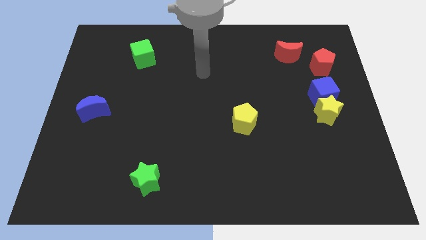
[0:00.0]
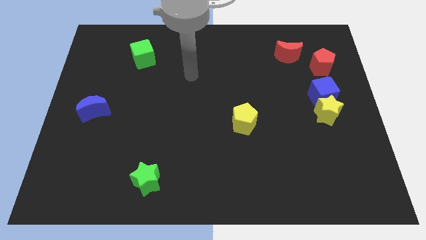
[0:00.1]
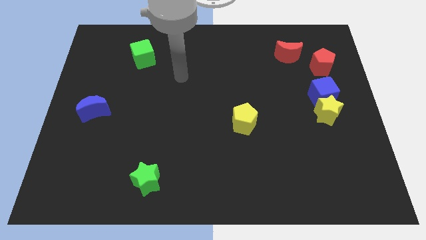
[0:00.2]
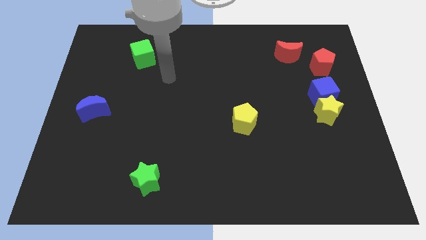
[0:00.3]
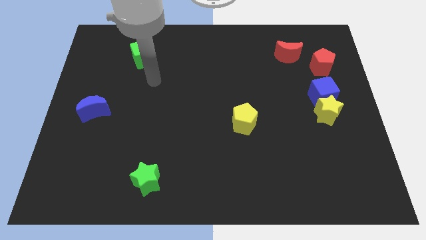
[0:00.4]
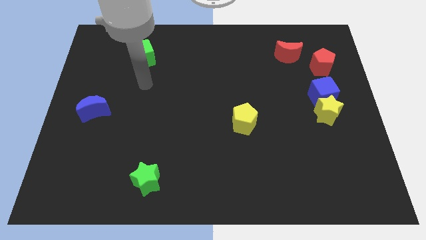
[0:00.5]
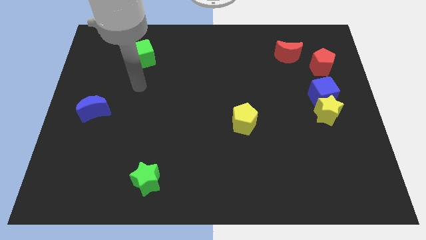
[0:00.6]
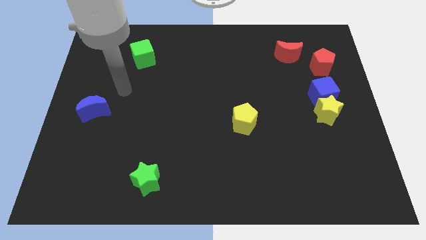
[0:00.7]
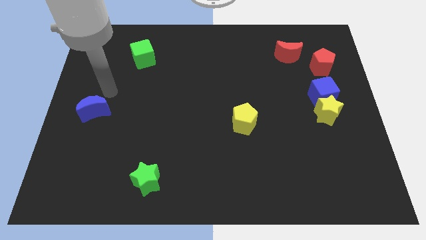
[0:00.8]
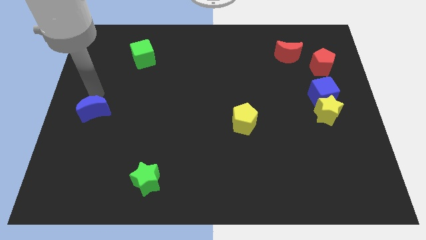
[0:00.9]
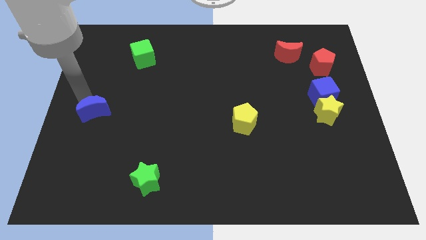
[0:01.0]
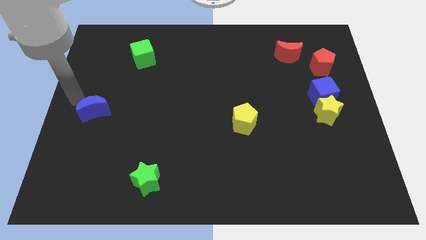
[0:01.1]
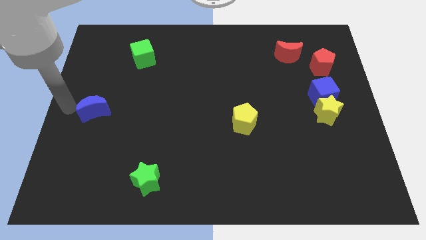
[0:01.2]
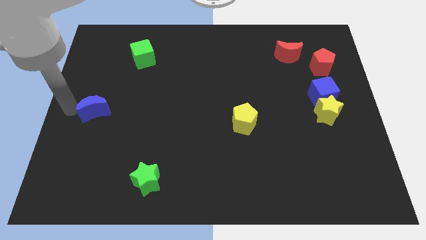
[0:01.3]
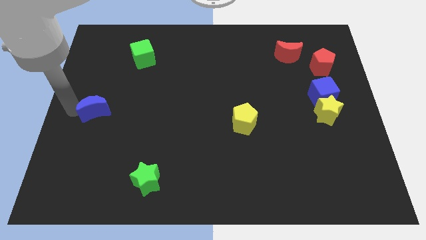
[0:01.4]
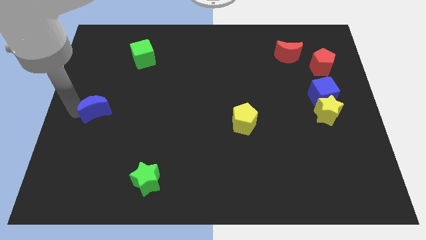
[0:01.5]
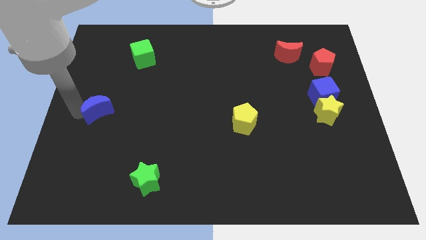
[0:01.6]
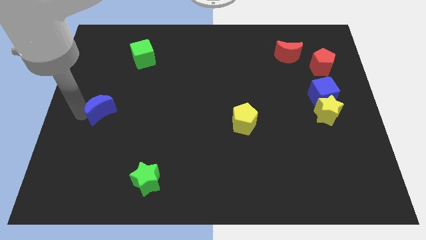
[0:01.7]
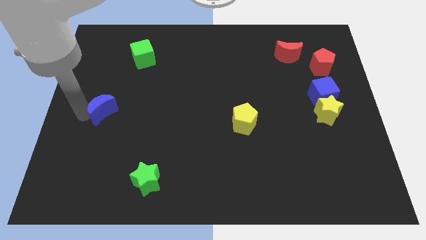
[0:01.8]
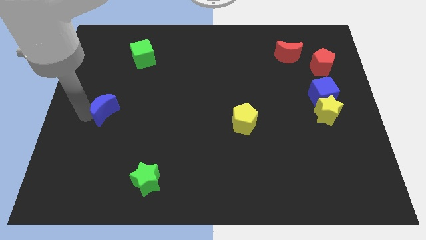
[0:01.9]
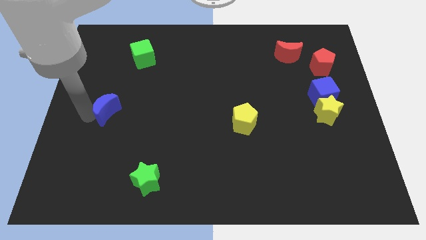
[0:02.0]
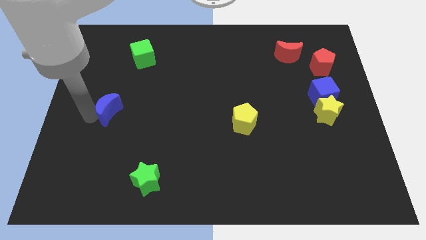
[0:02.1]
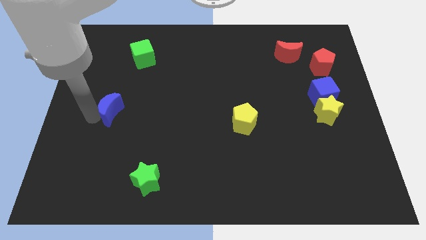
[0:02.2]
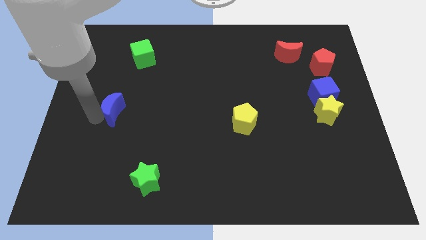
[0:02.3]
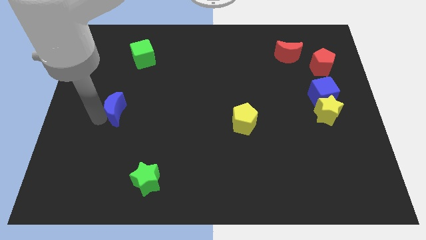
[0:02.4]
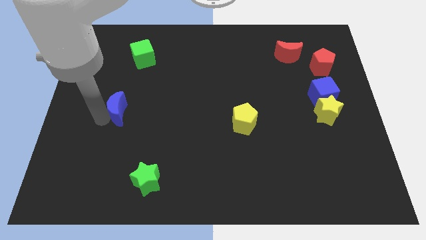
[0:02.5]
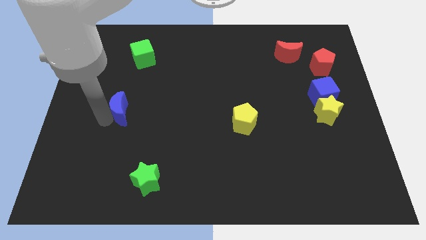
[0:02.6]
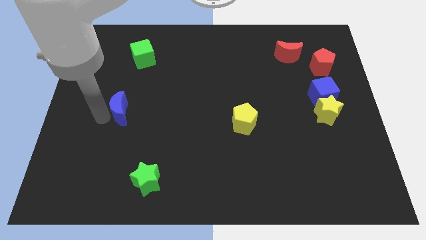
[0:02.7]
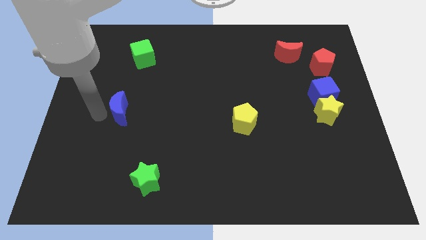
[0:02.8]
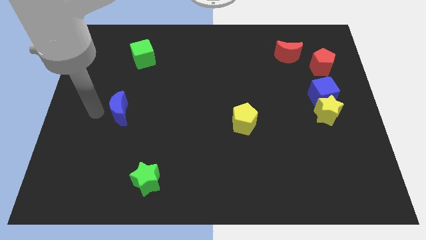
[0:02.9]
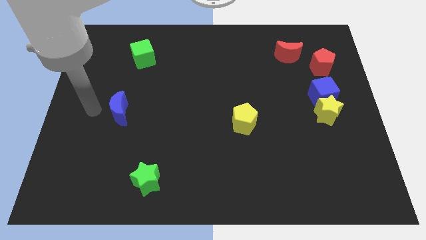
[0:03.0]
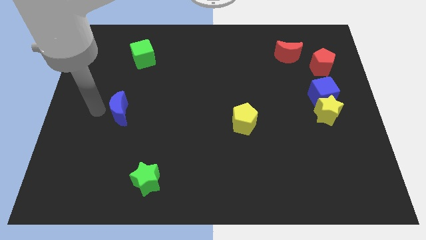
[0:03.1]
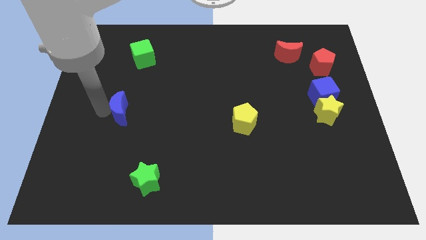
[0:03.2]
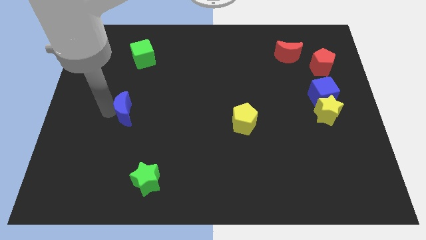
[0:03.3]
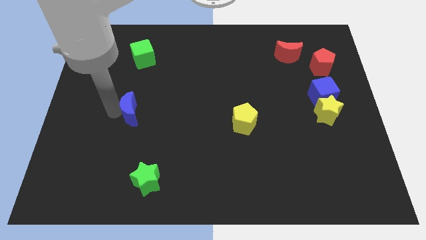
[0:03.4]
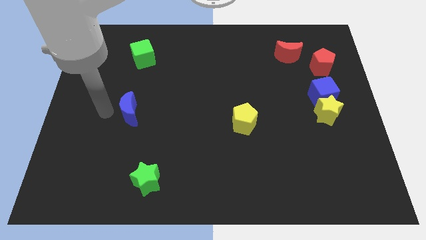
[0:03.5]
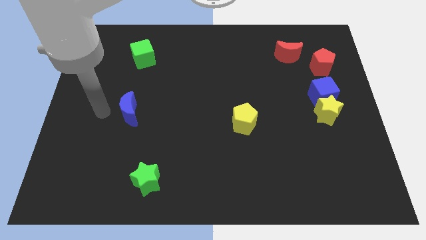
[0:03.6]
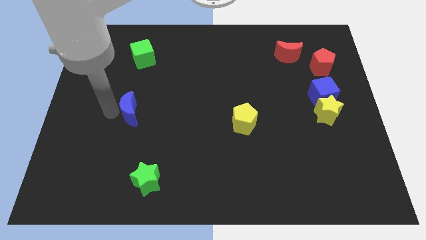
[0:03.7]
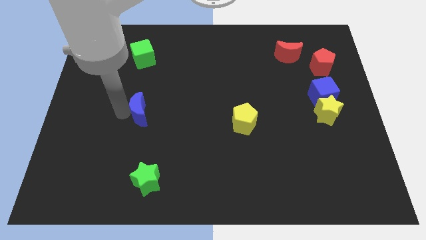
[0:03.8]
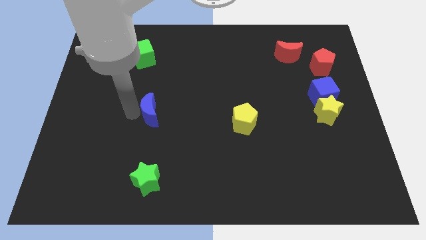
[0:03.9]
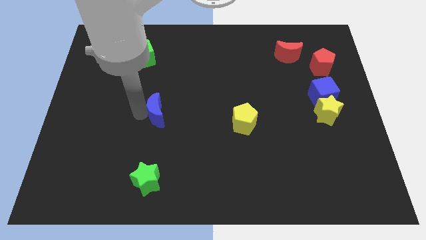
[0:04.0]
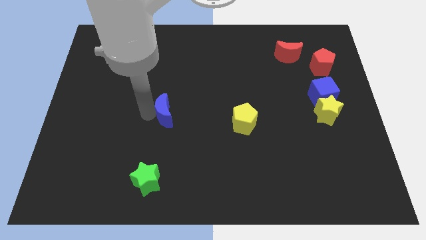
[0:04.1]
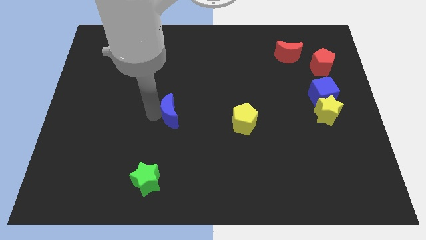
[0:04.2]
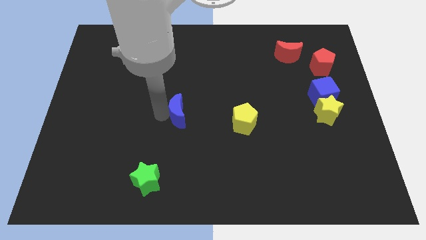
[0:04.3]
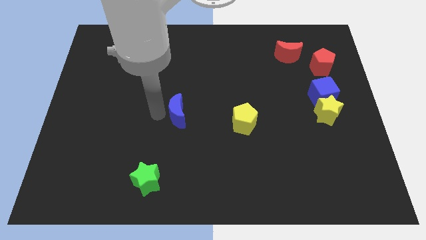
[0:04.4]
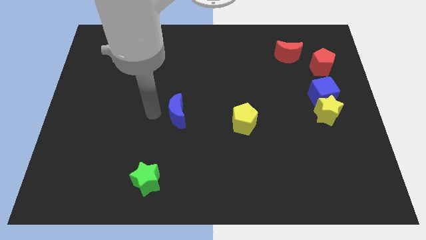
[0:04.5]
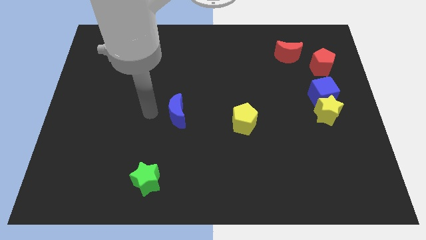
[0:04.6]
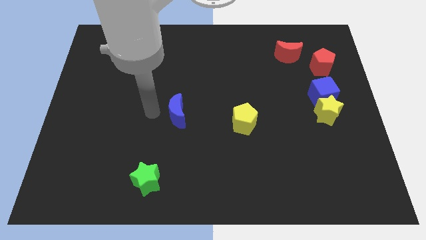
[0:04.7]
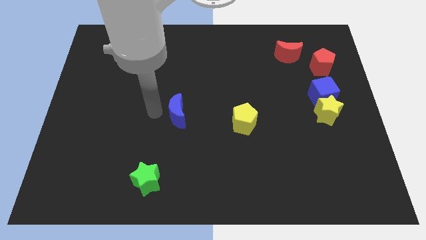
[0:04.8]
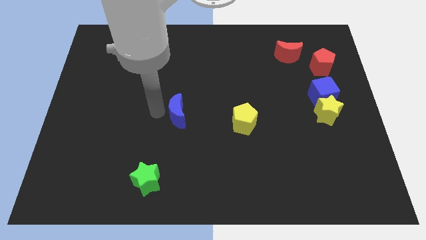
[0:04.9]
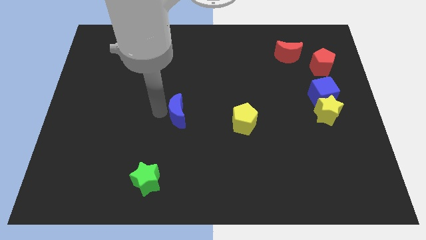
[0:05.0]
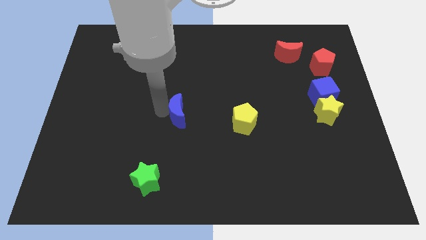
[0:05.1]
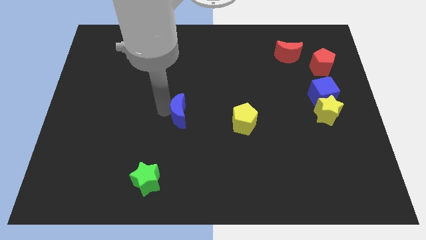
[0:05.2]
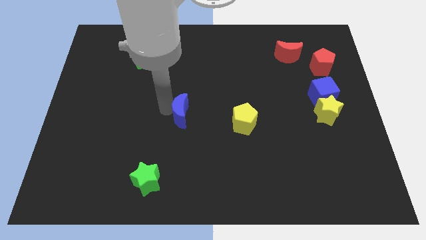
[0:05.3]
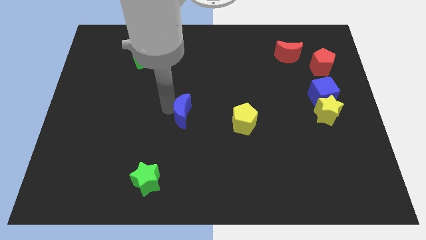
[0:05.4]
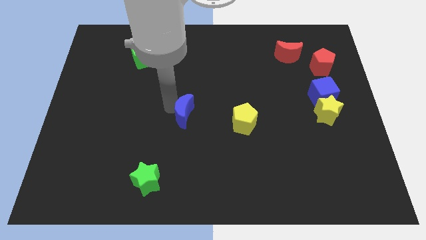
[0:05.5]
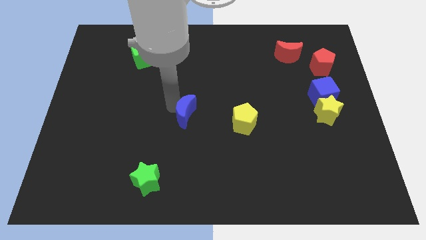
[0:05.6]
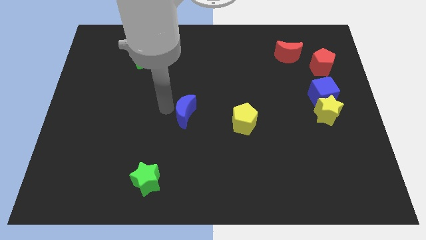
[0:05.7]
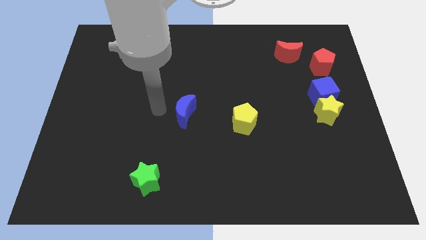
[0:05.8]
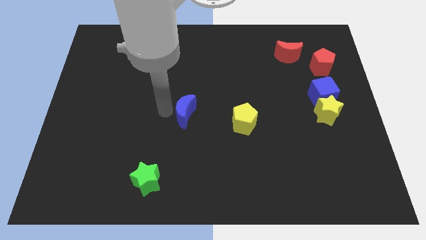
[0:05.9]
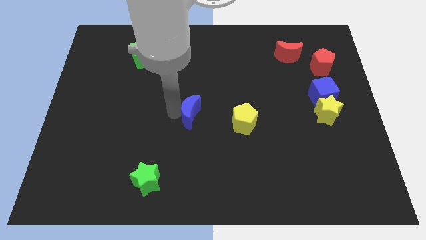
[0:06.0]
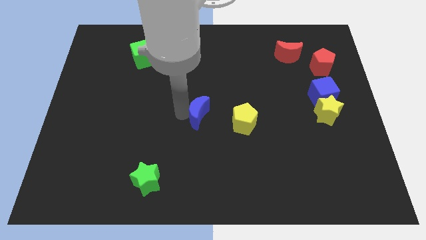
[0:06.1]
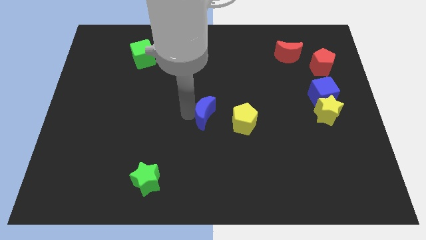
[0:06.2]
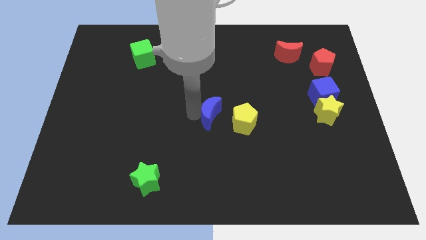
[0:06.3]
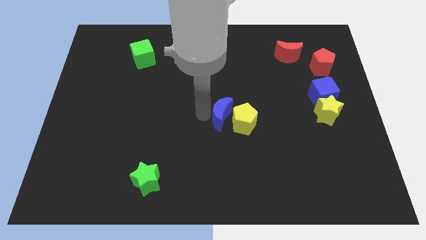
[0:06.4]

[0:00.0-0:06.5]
slide the blue moon towards the yellow pentagon
